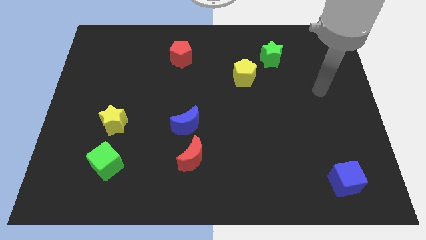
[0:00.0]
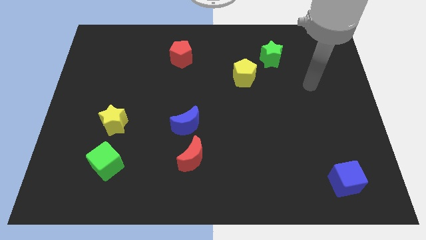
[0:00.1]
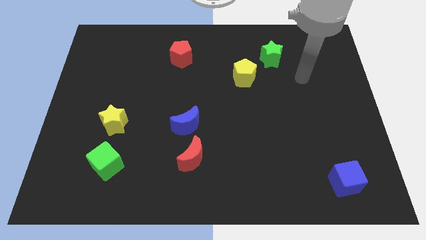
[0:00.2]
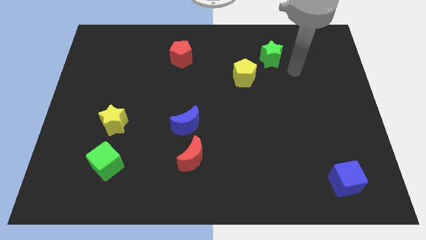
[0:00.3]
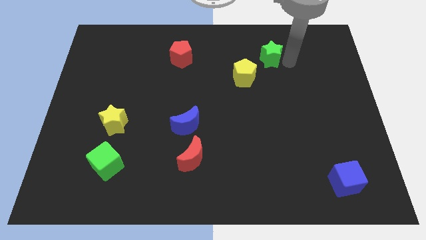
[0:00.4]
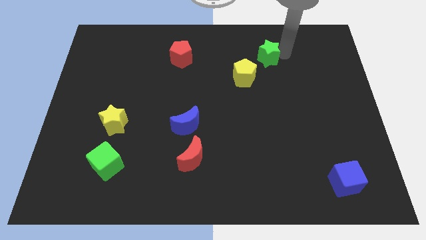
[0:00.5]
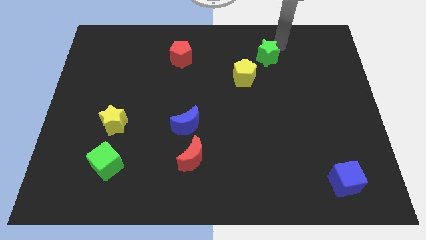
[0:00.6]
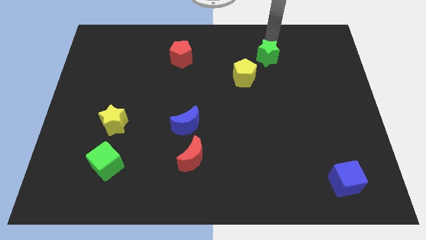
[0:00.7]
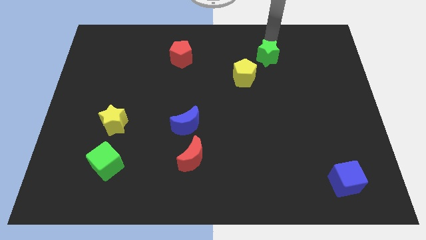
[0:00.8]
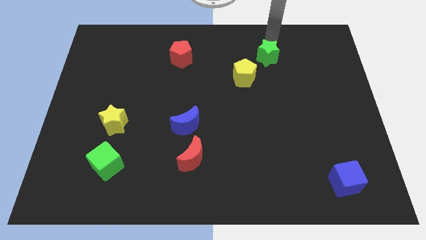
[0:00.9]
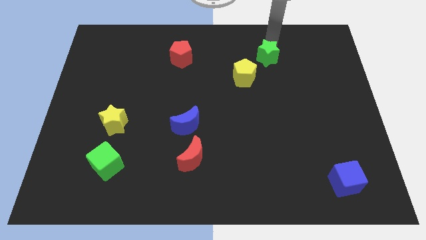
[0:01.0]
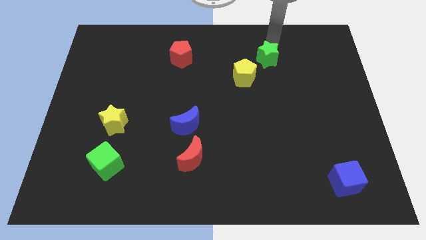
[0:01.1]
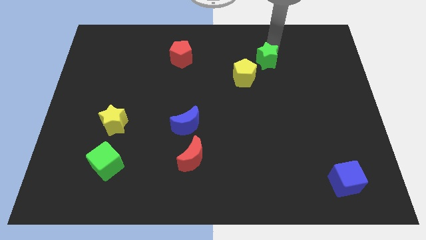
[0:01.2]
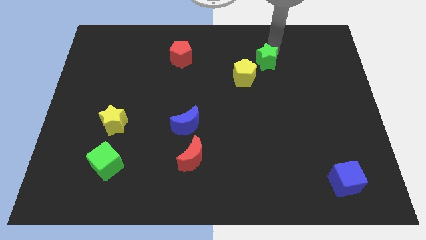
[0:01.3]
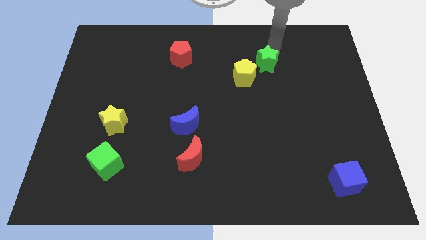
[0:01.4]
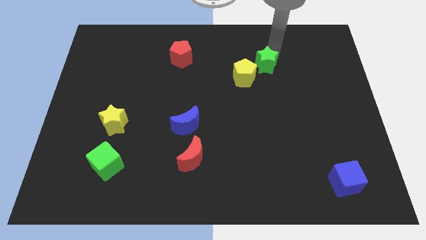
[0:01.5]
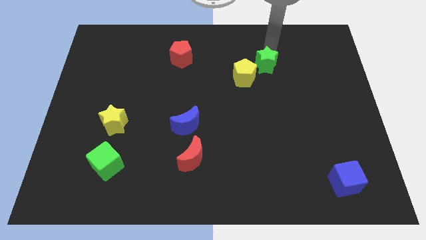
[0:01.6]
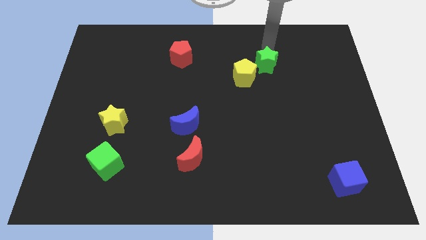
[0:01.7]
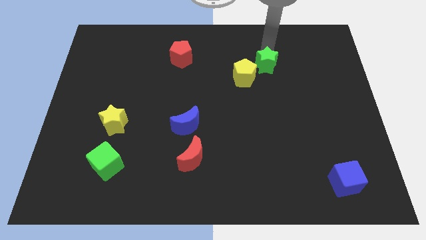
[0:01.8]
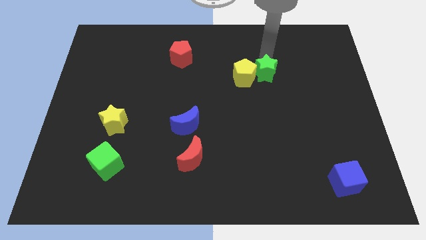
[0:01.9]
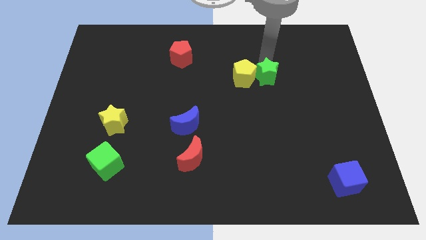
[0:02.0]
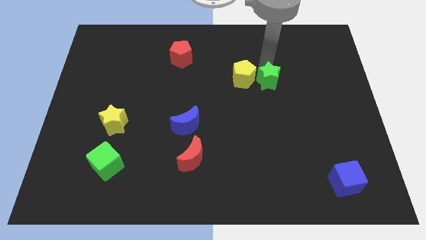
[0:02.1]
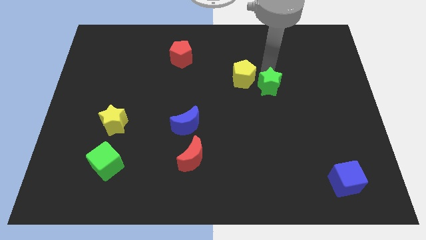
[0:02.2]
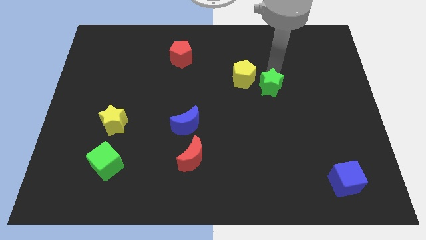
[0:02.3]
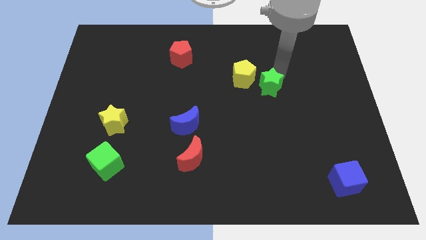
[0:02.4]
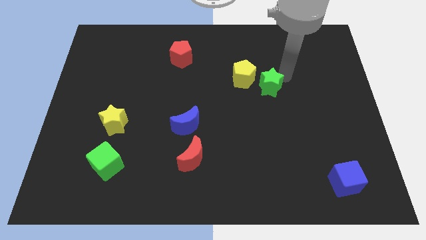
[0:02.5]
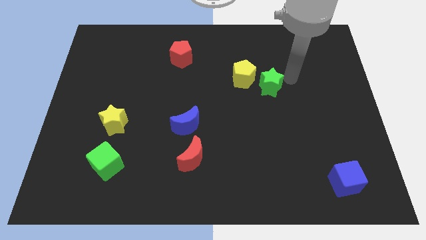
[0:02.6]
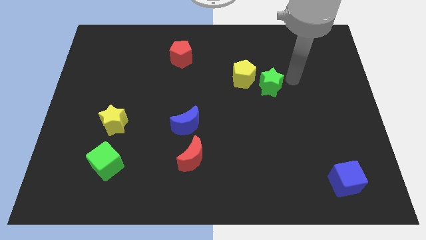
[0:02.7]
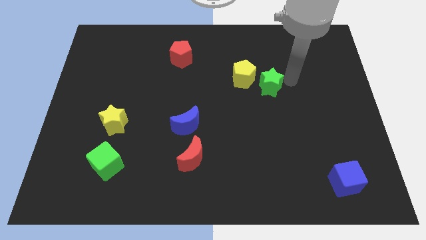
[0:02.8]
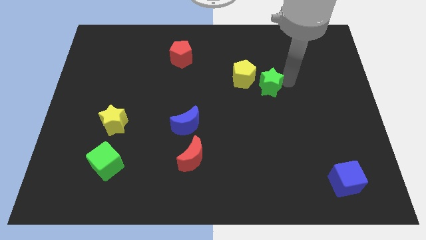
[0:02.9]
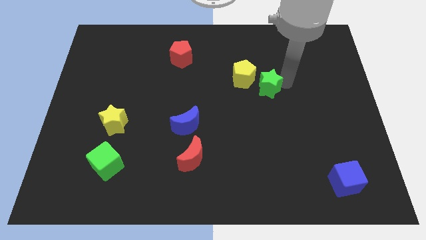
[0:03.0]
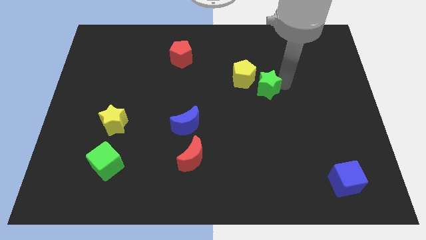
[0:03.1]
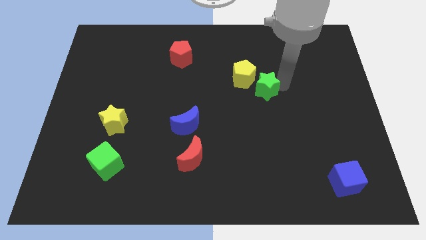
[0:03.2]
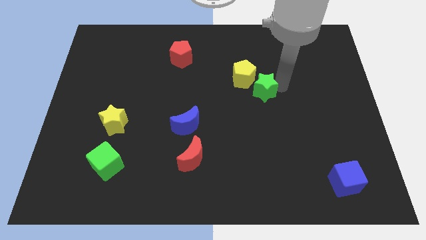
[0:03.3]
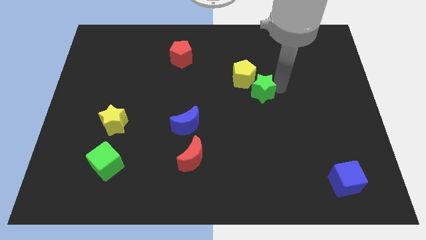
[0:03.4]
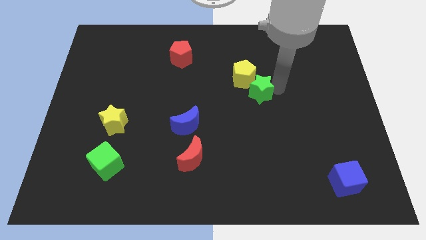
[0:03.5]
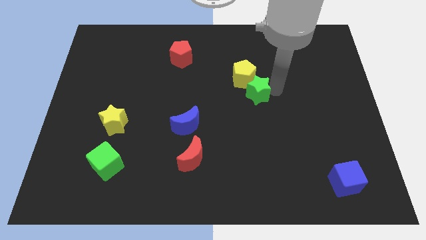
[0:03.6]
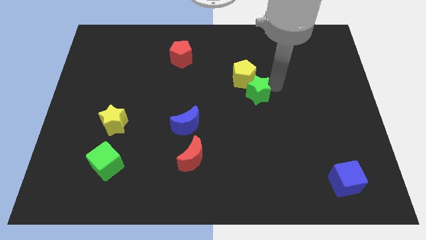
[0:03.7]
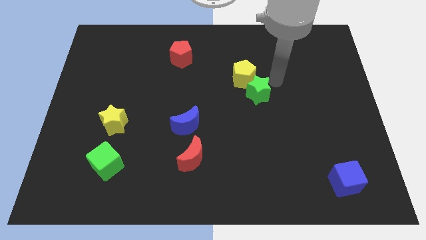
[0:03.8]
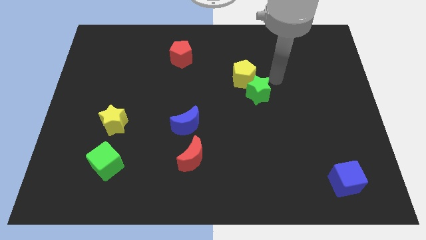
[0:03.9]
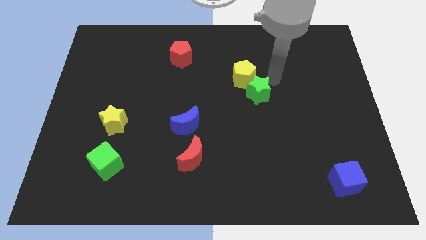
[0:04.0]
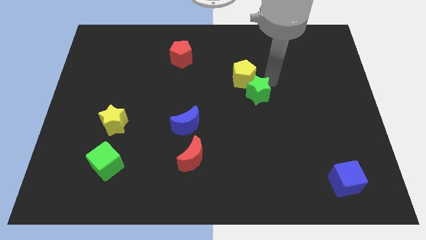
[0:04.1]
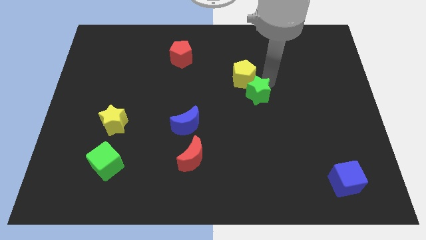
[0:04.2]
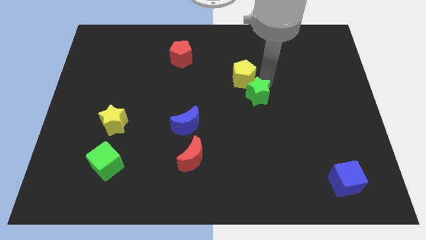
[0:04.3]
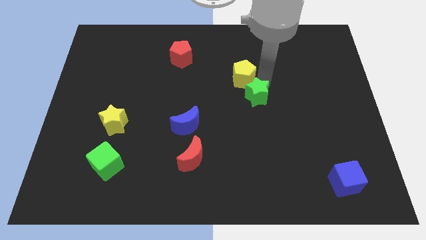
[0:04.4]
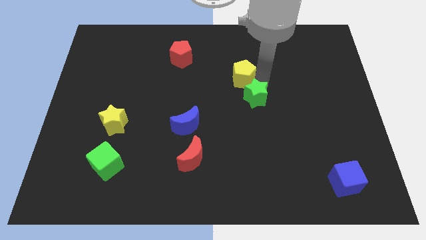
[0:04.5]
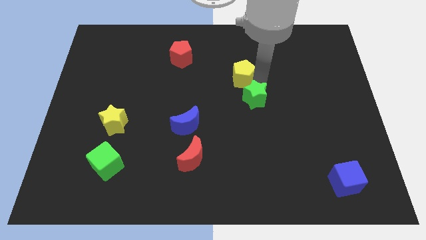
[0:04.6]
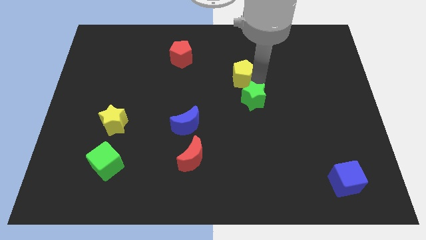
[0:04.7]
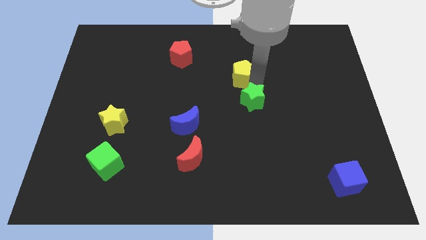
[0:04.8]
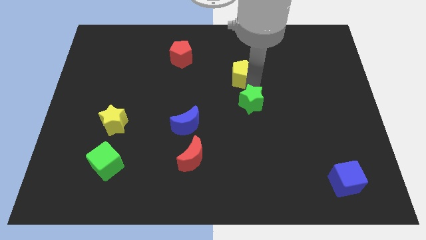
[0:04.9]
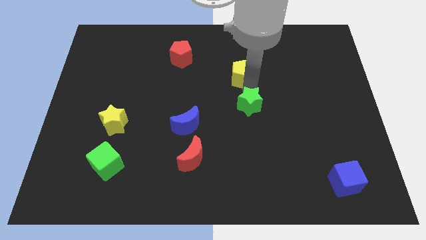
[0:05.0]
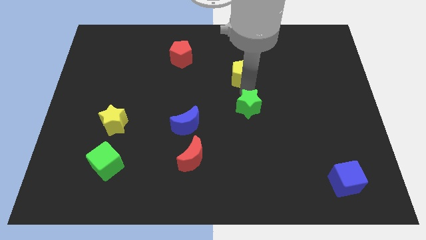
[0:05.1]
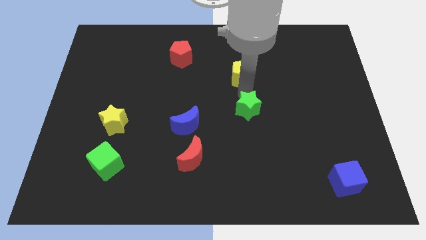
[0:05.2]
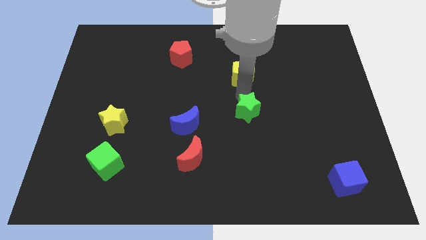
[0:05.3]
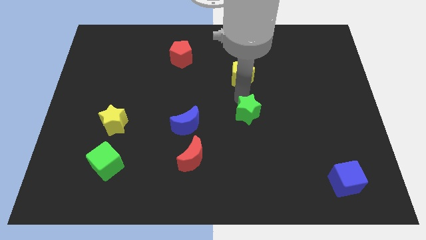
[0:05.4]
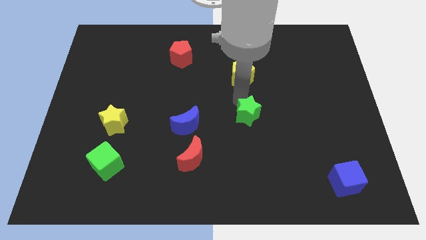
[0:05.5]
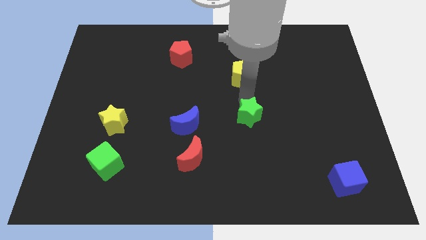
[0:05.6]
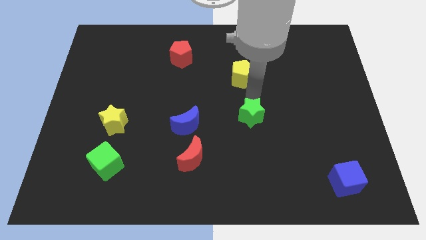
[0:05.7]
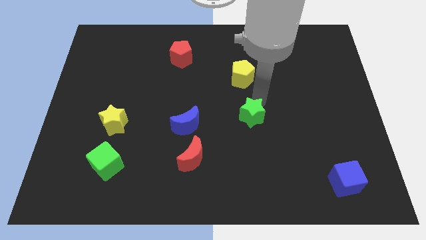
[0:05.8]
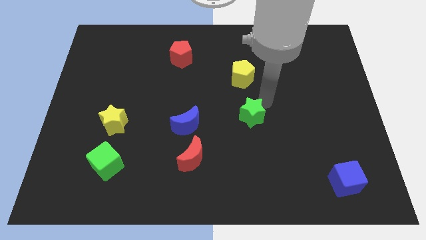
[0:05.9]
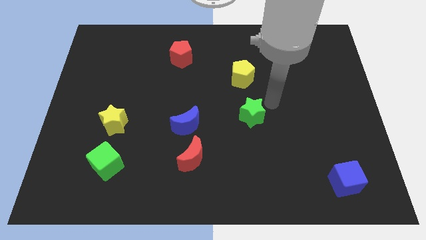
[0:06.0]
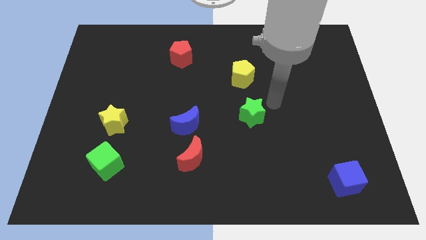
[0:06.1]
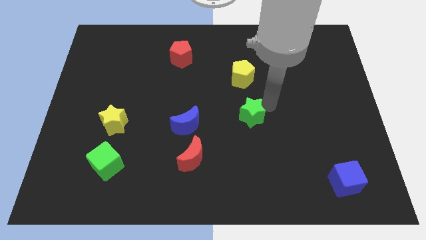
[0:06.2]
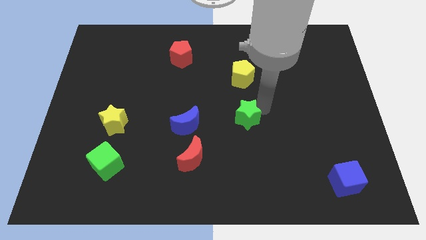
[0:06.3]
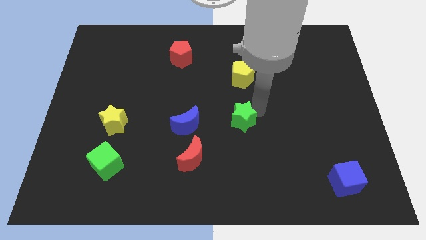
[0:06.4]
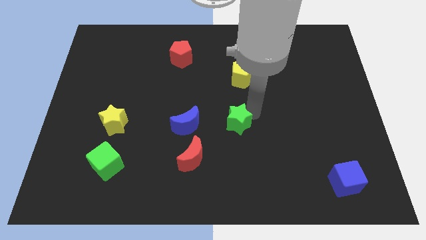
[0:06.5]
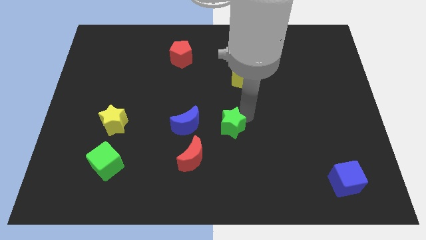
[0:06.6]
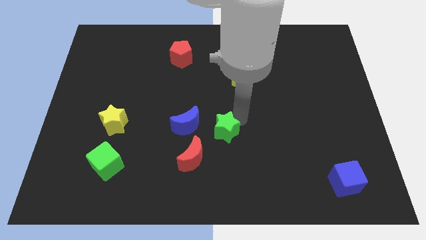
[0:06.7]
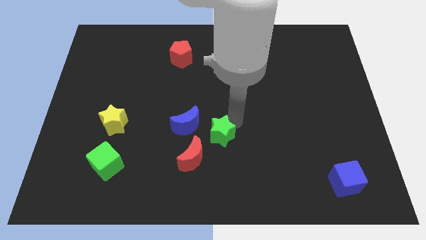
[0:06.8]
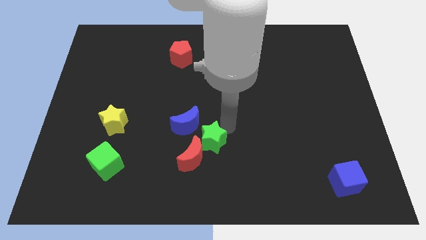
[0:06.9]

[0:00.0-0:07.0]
put the green star towards the red moon

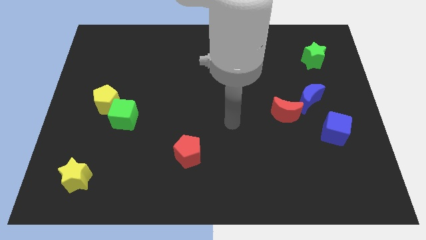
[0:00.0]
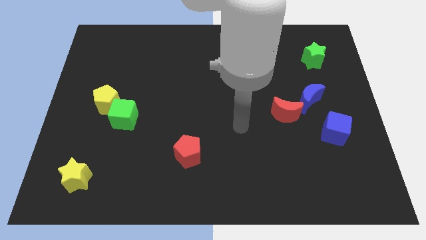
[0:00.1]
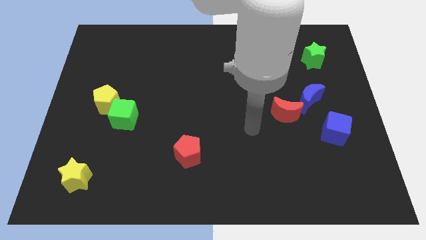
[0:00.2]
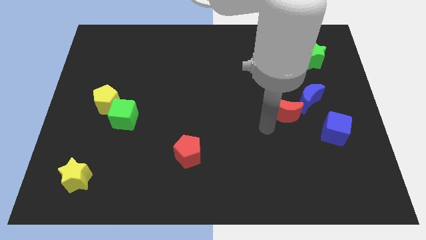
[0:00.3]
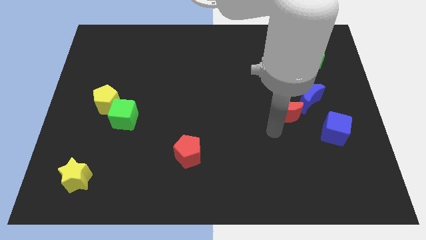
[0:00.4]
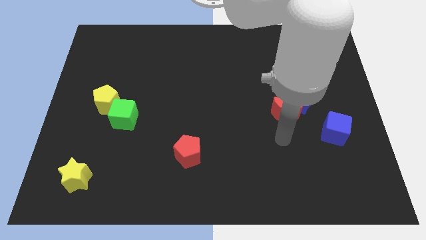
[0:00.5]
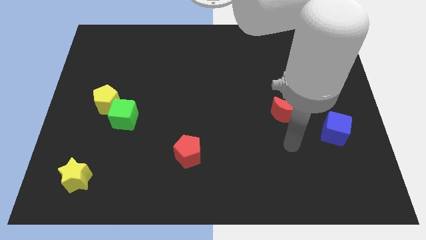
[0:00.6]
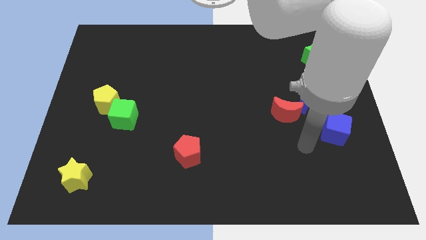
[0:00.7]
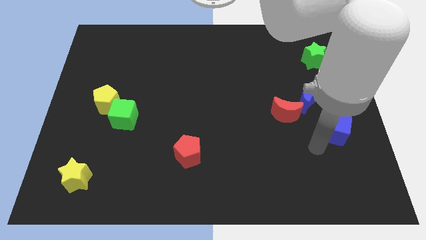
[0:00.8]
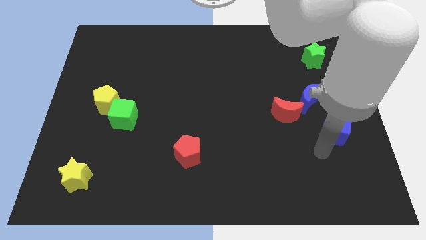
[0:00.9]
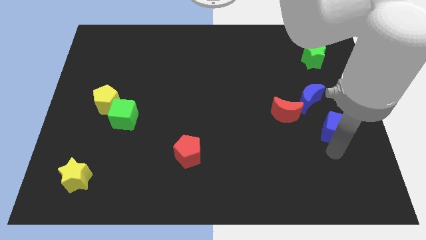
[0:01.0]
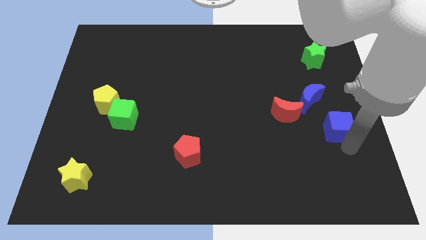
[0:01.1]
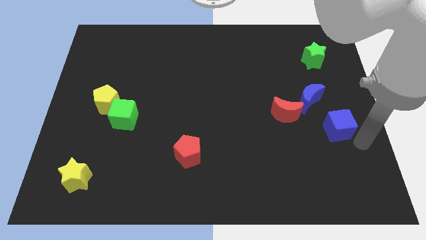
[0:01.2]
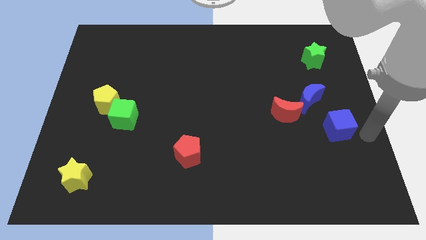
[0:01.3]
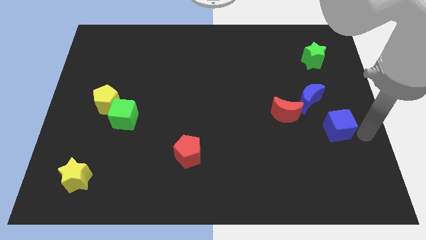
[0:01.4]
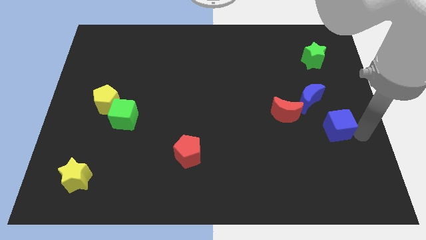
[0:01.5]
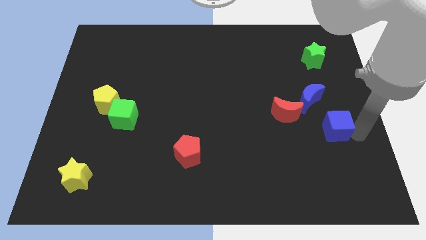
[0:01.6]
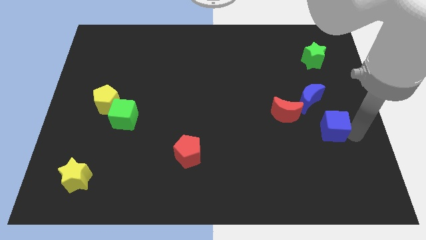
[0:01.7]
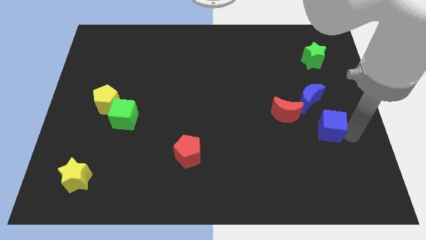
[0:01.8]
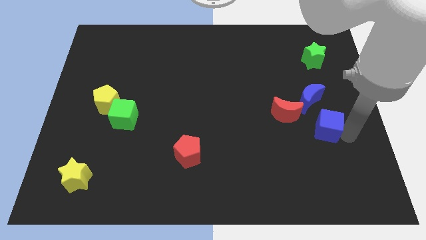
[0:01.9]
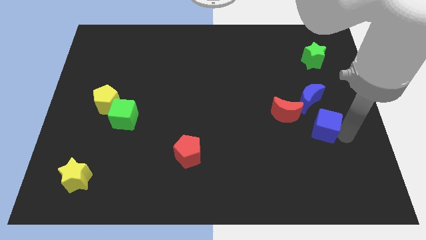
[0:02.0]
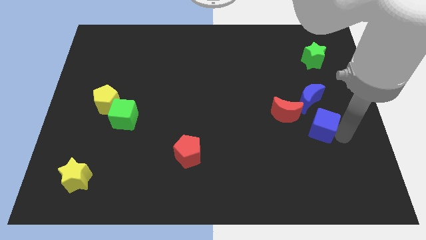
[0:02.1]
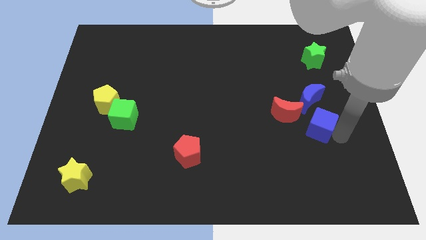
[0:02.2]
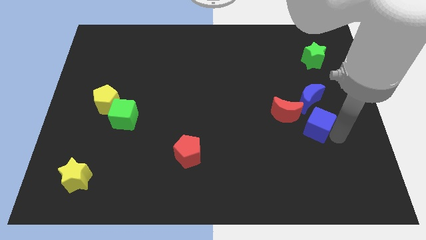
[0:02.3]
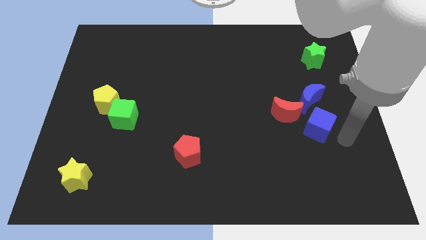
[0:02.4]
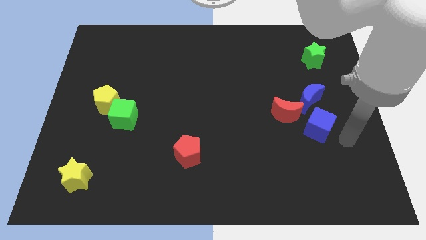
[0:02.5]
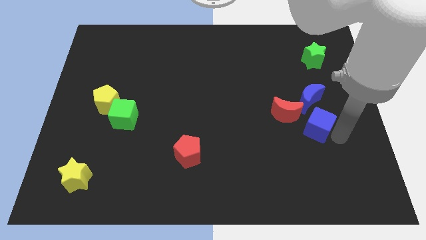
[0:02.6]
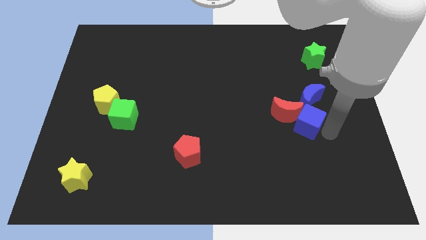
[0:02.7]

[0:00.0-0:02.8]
push the blue cube close to the red moon
